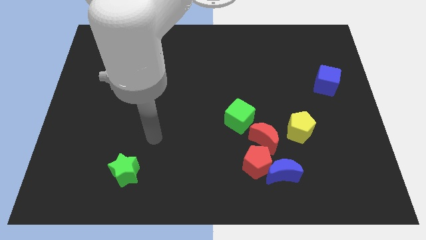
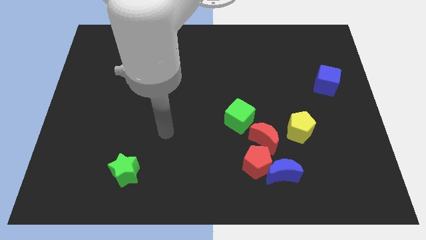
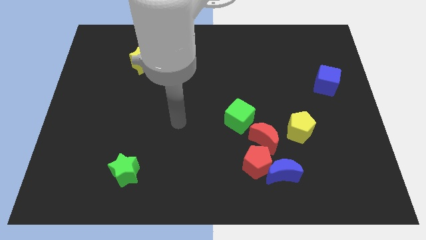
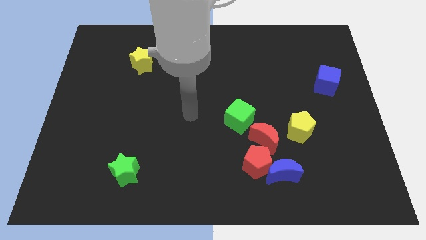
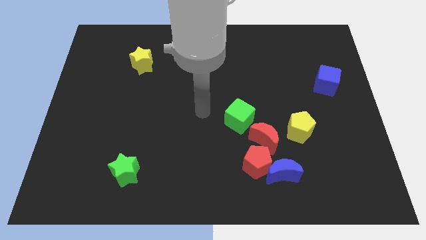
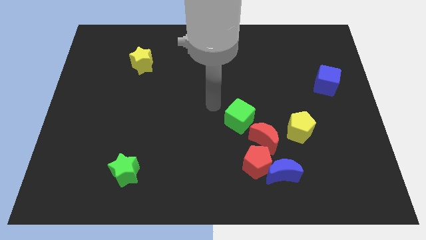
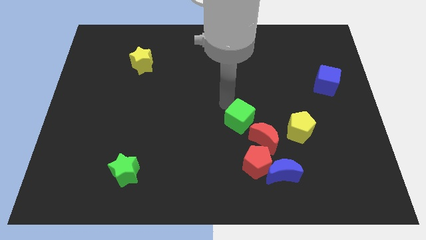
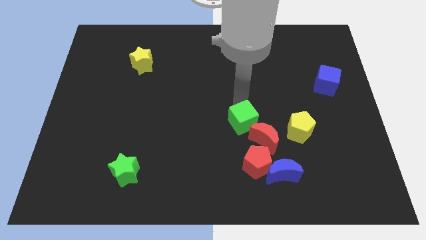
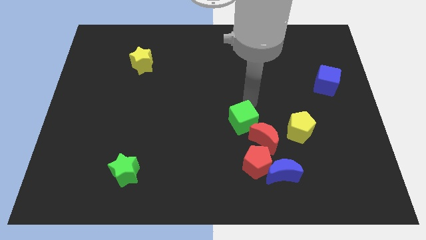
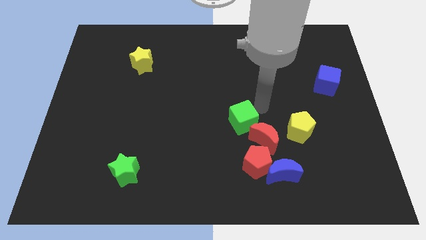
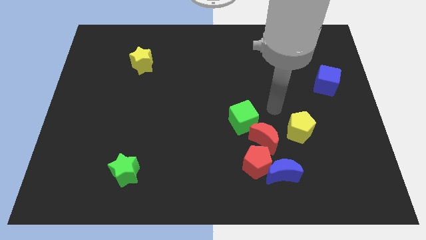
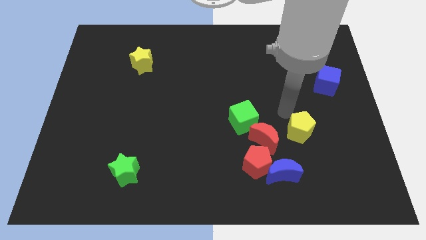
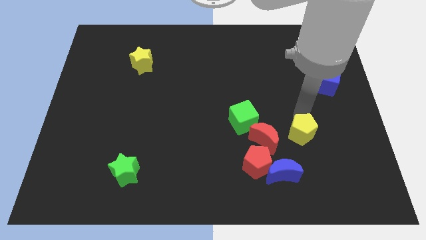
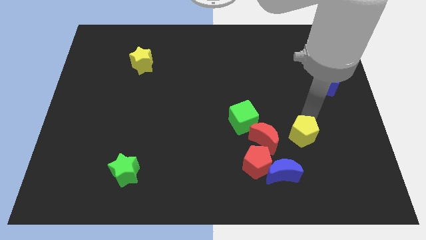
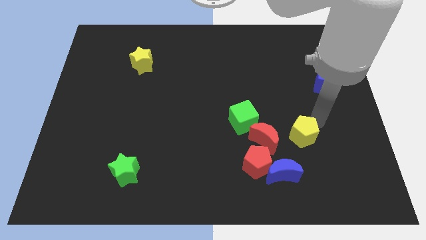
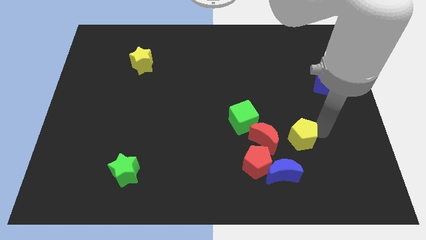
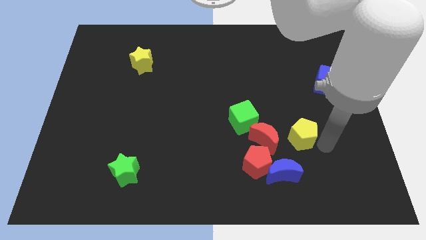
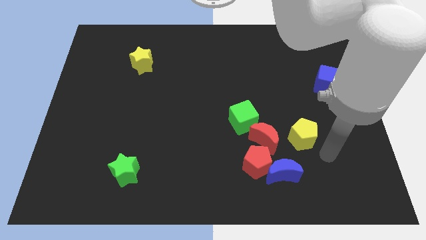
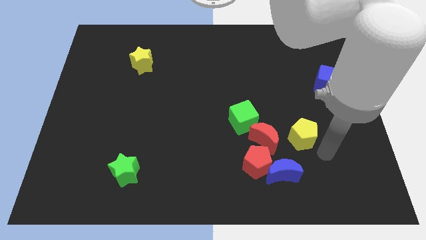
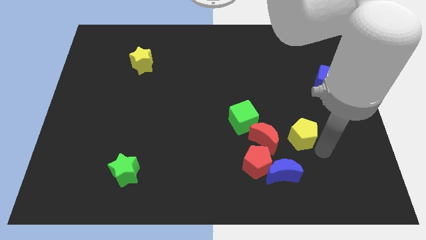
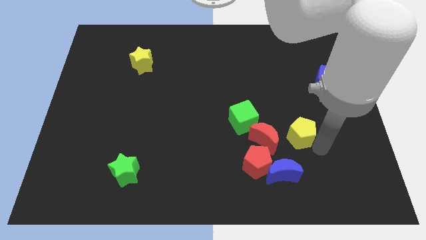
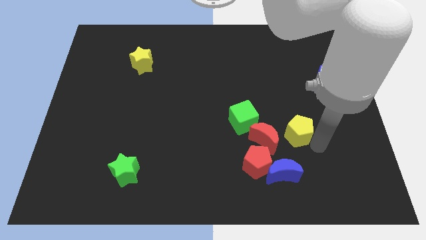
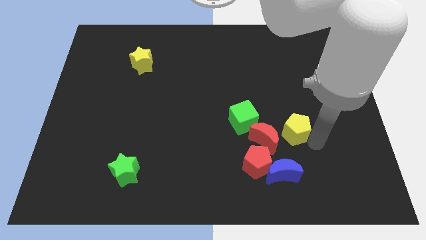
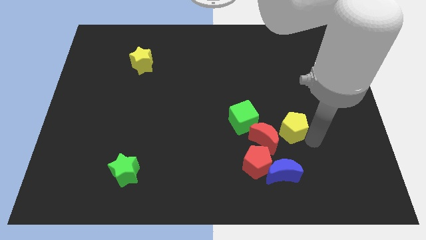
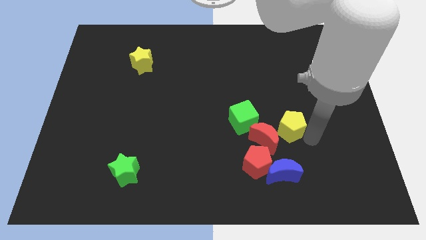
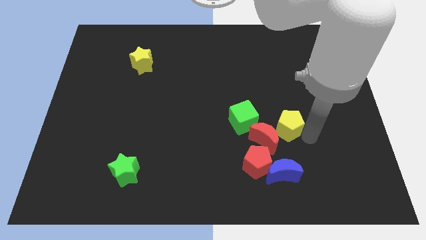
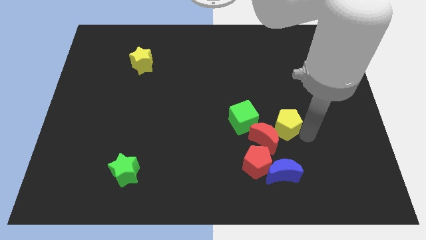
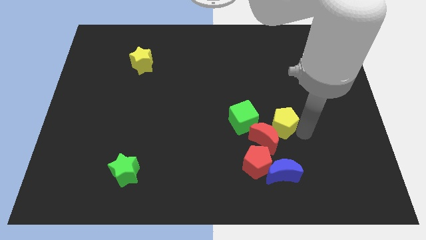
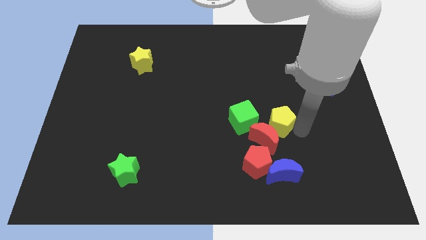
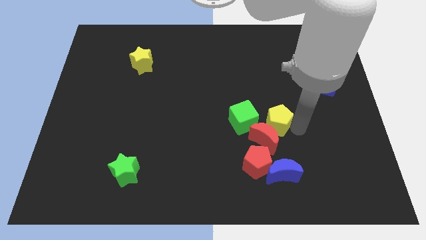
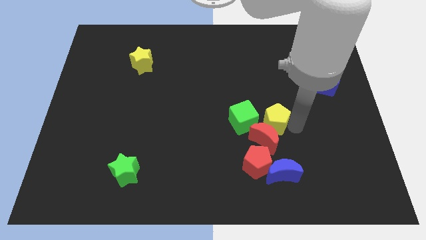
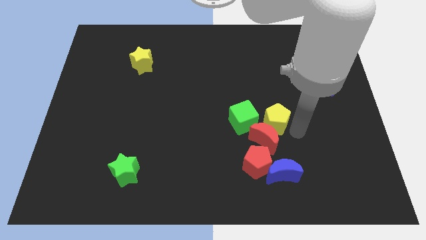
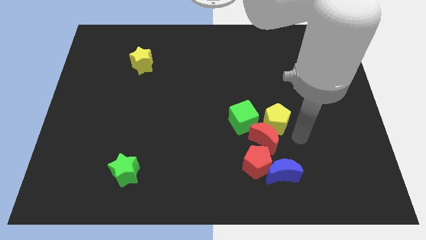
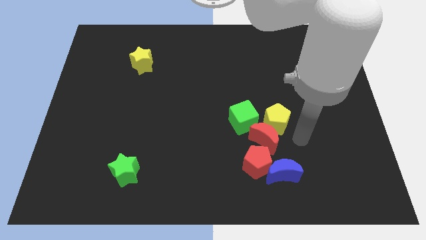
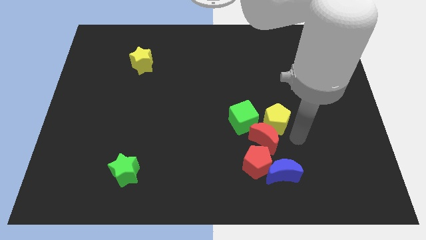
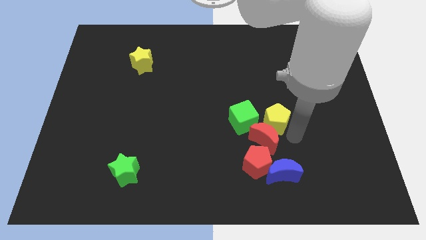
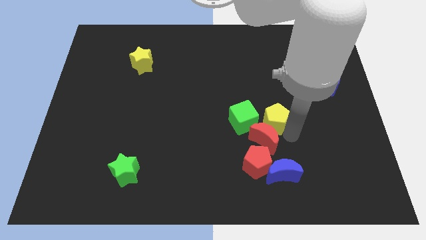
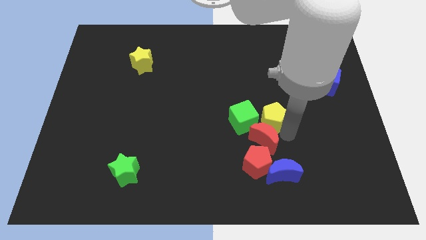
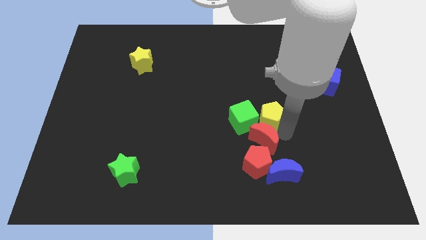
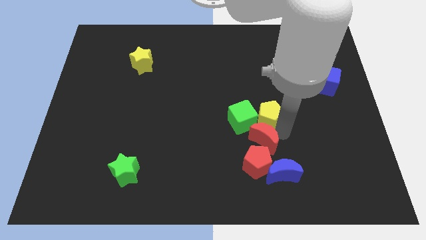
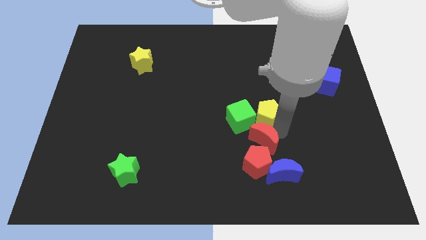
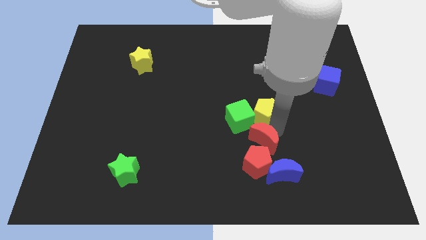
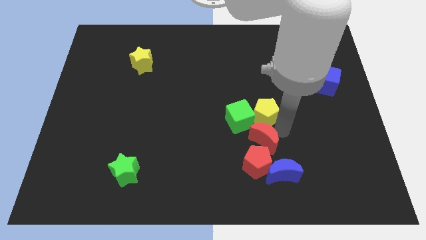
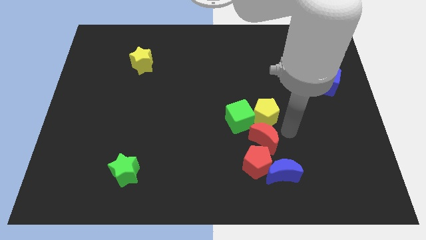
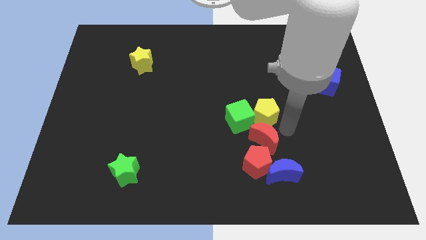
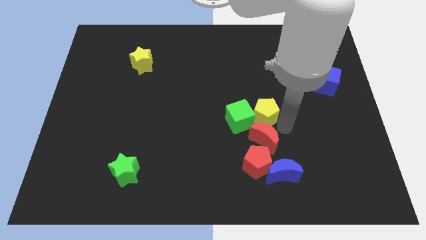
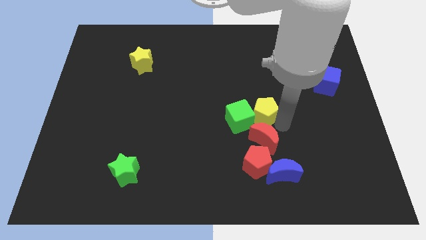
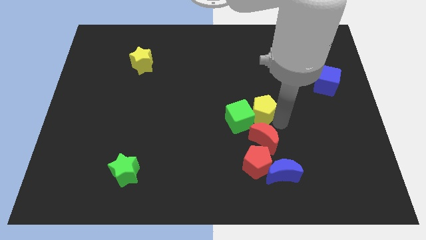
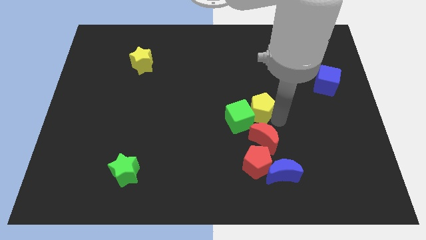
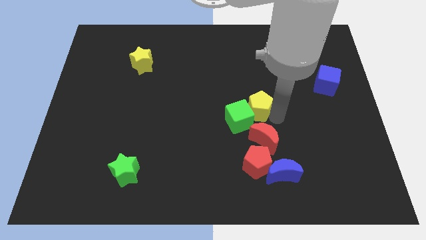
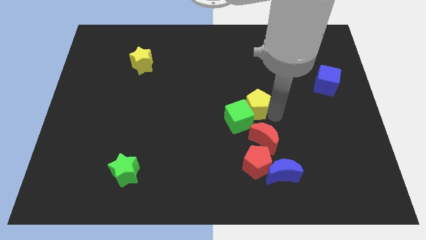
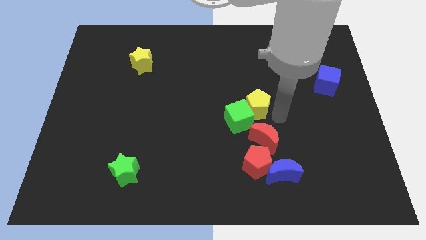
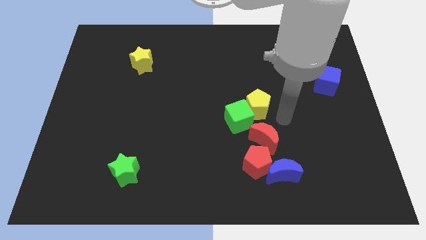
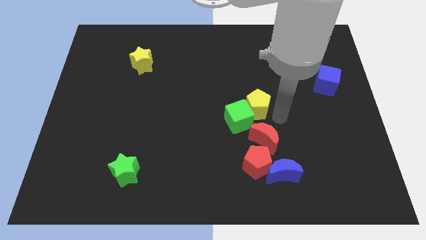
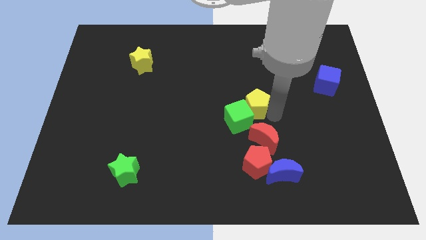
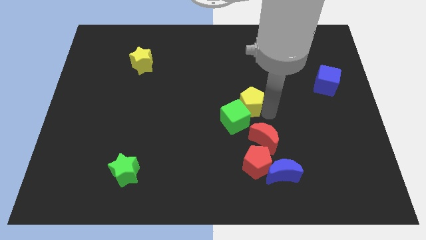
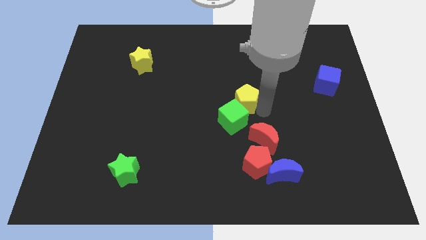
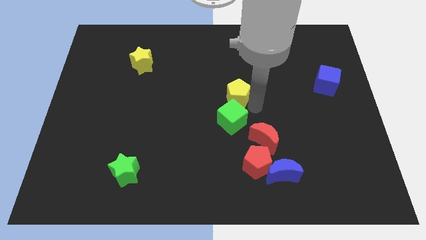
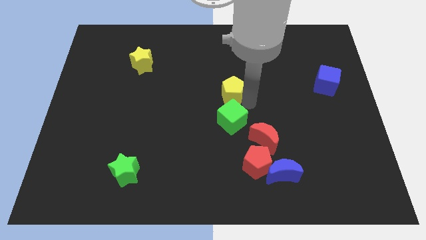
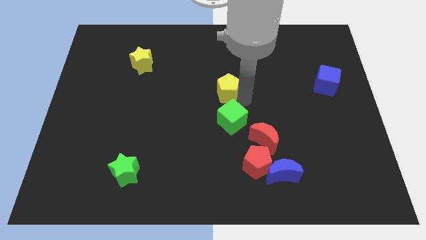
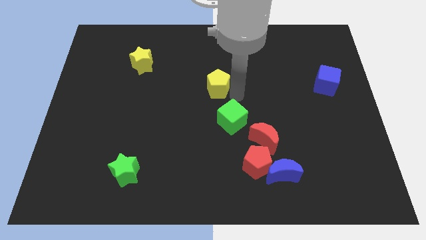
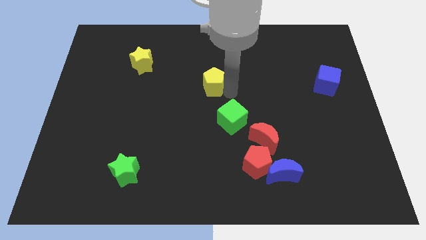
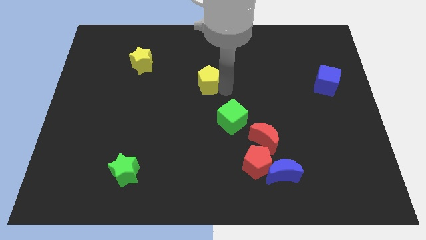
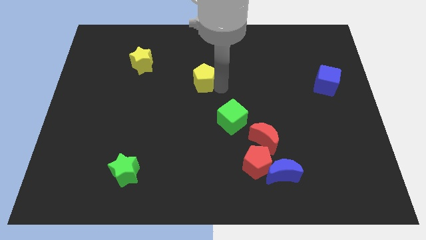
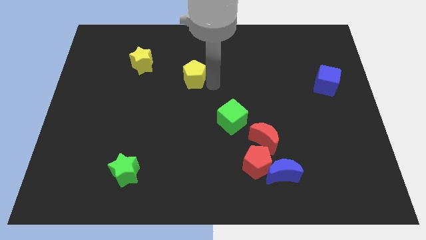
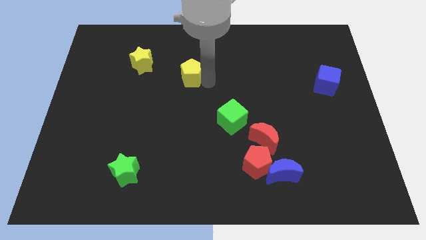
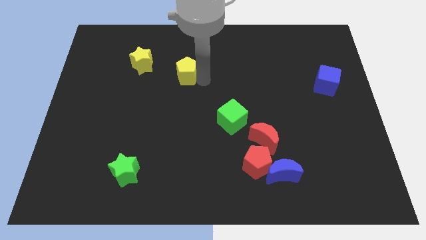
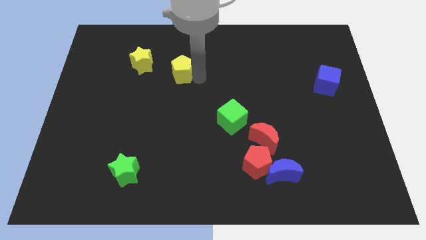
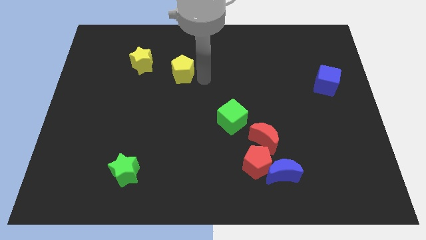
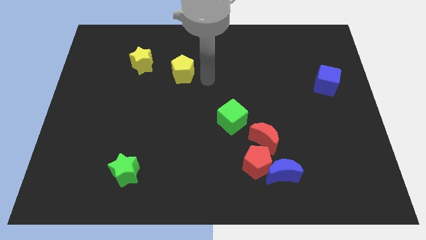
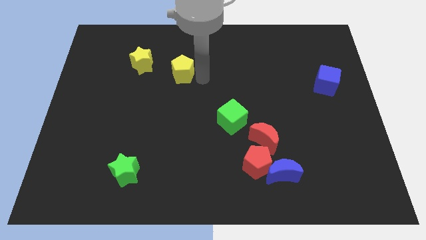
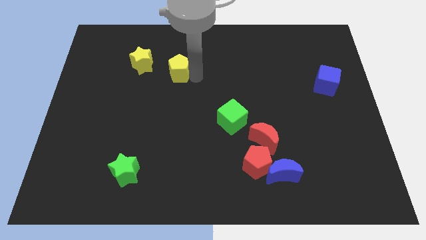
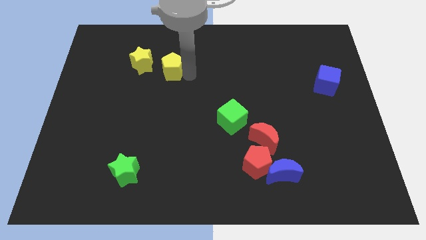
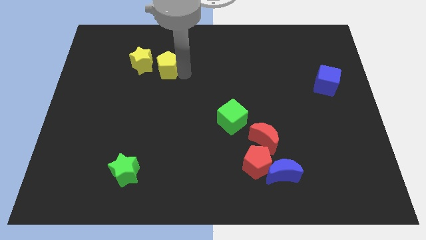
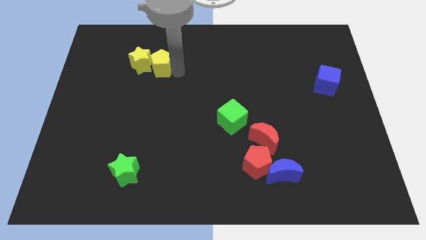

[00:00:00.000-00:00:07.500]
push the yellow pentagon towards the yellow star
